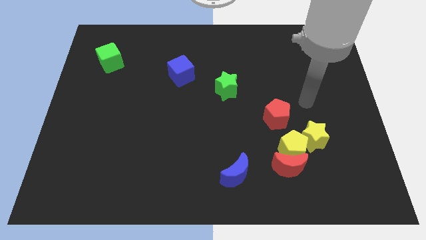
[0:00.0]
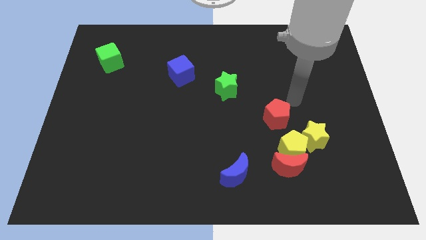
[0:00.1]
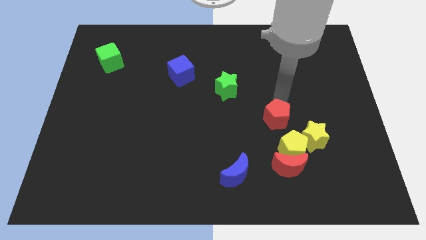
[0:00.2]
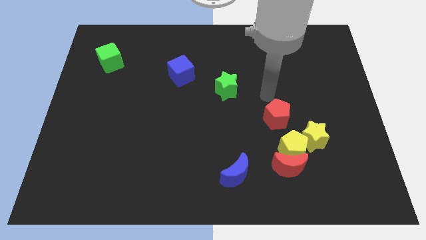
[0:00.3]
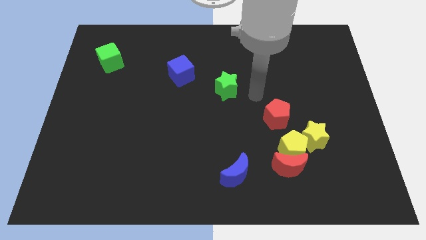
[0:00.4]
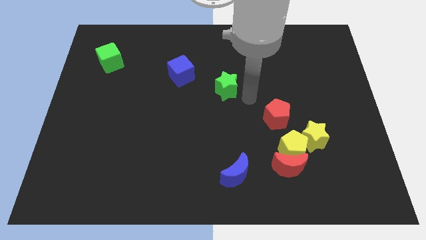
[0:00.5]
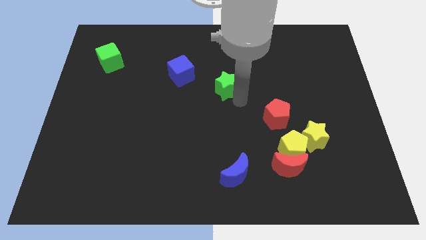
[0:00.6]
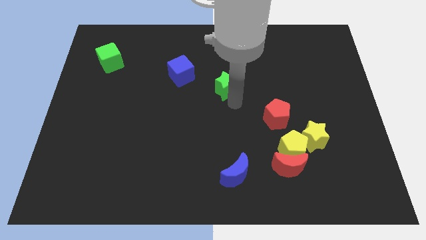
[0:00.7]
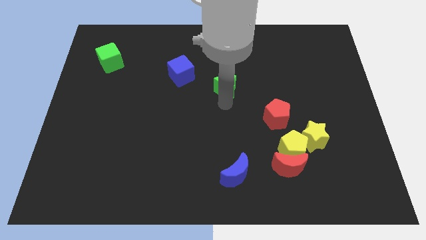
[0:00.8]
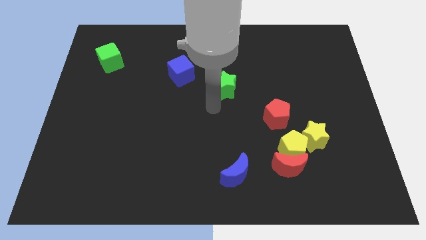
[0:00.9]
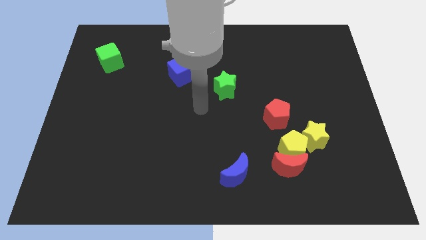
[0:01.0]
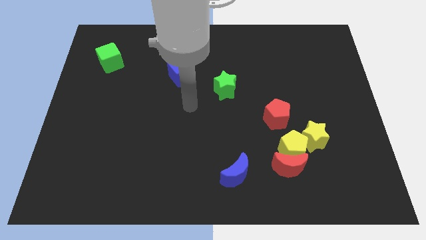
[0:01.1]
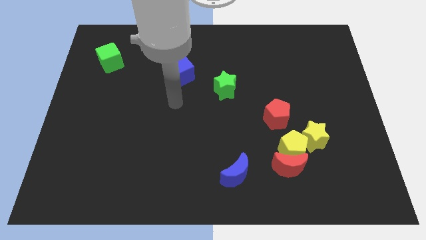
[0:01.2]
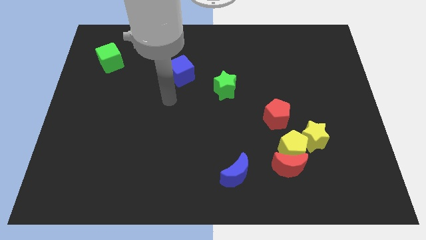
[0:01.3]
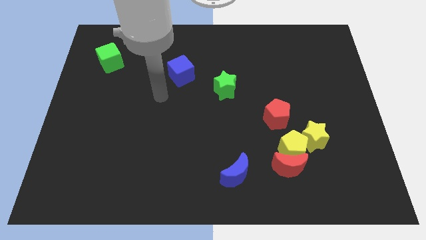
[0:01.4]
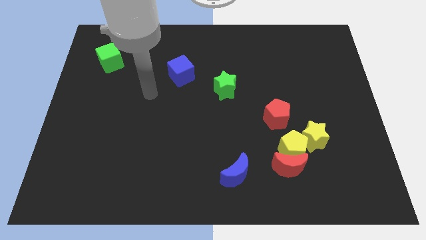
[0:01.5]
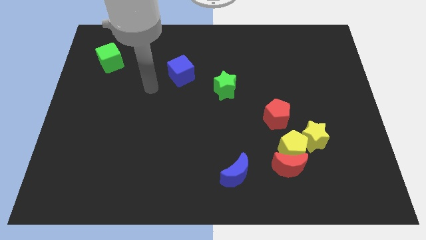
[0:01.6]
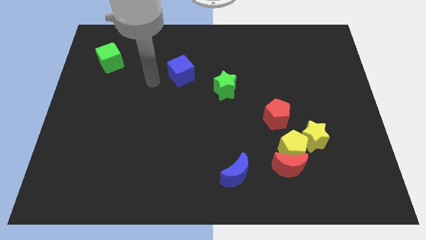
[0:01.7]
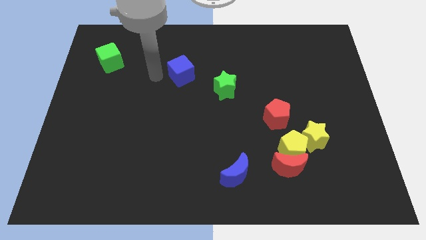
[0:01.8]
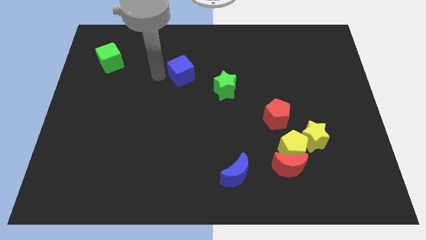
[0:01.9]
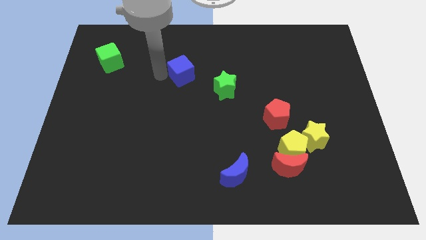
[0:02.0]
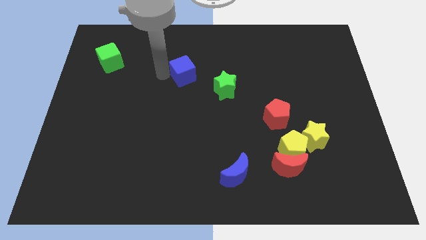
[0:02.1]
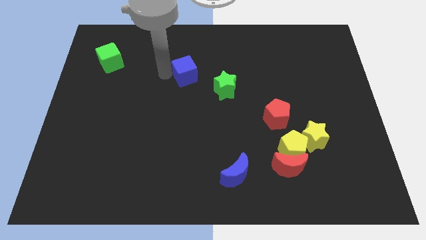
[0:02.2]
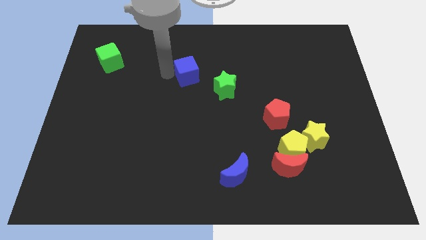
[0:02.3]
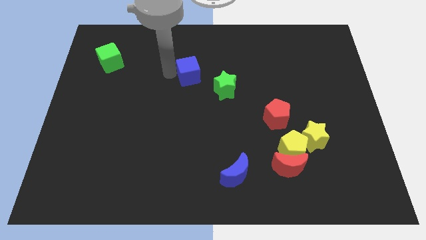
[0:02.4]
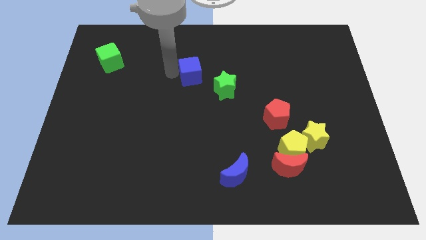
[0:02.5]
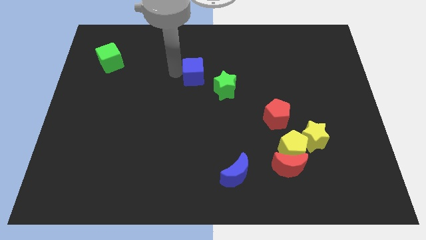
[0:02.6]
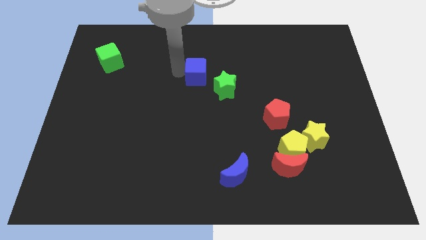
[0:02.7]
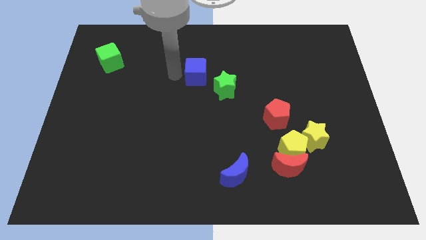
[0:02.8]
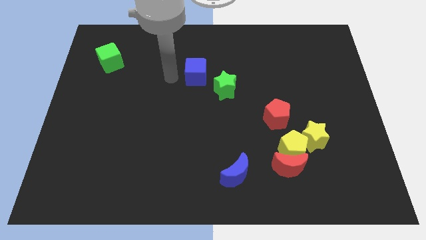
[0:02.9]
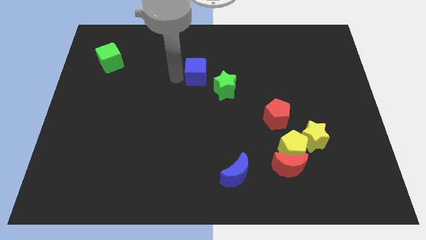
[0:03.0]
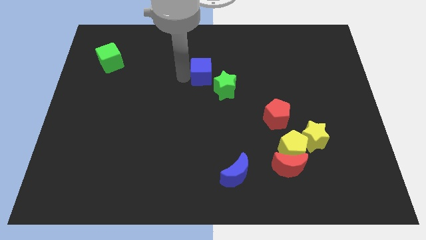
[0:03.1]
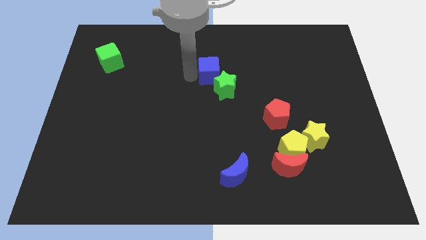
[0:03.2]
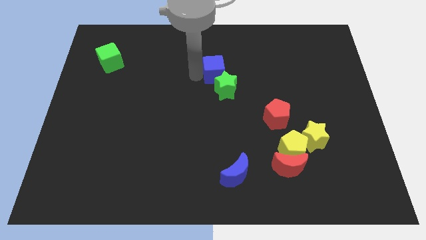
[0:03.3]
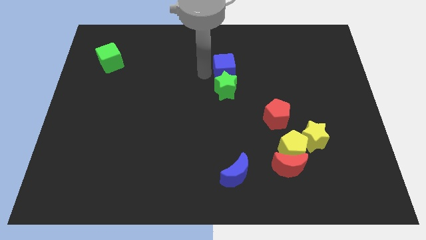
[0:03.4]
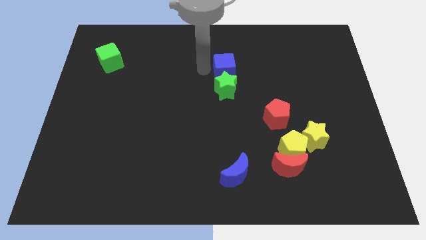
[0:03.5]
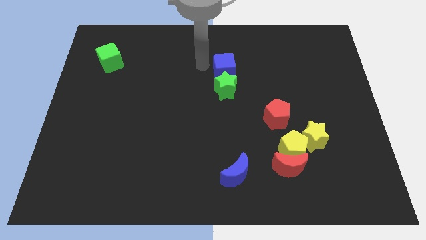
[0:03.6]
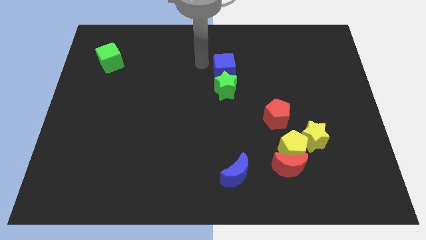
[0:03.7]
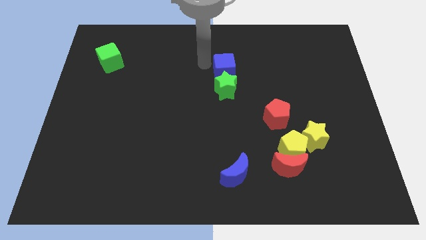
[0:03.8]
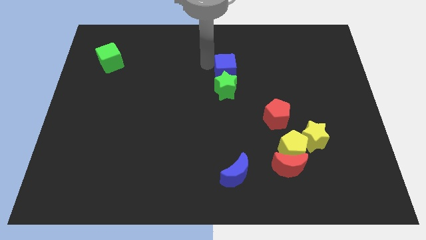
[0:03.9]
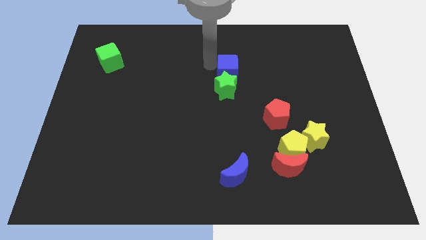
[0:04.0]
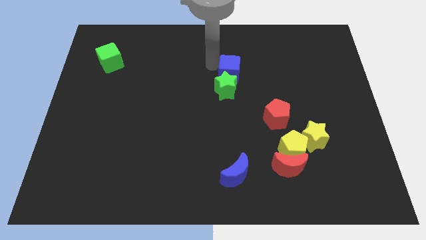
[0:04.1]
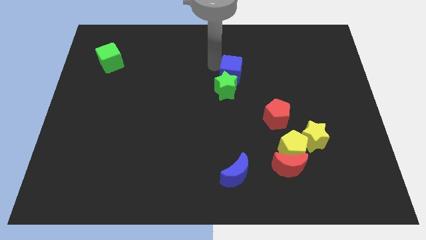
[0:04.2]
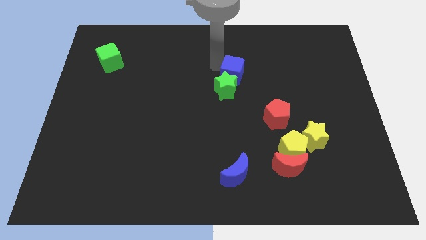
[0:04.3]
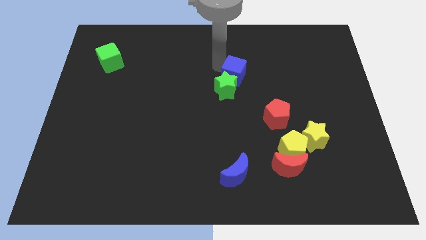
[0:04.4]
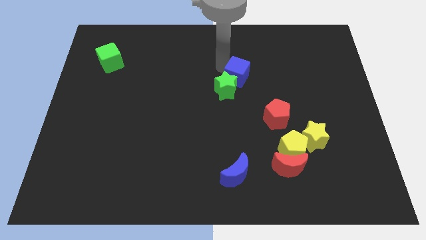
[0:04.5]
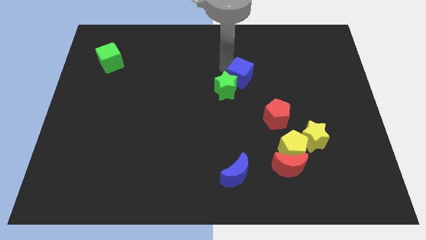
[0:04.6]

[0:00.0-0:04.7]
slide the blue cube just right of the green star

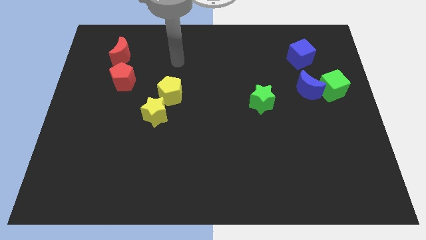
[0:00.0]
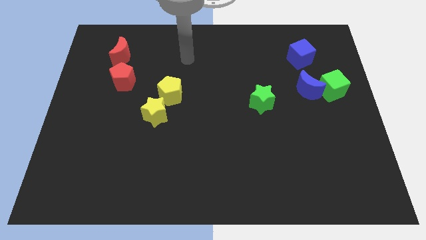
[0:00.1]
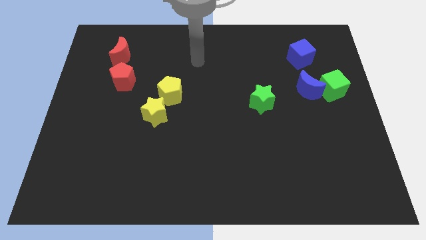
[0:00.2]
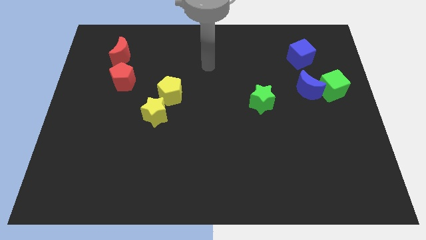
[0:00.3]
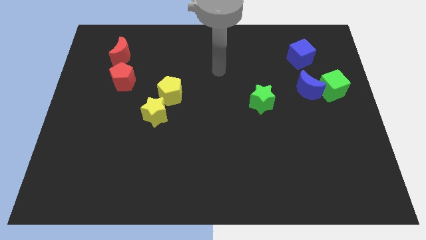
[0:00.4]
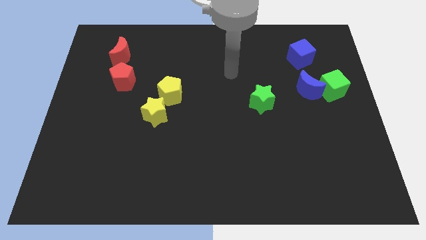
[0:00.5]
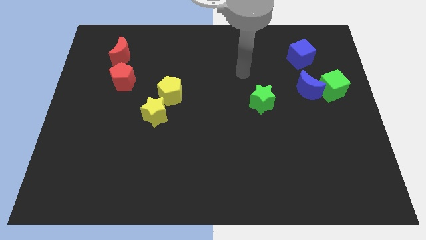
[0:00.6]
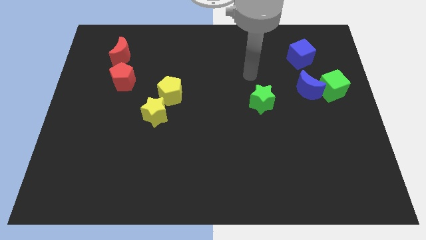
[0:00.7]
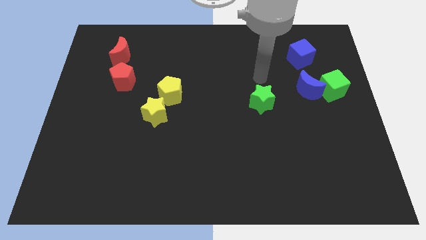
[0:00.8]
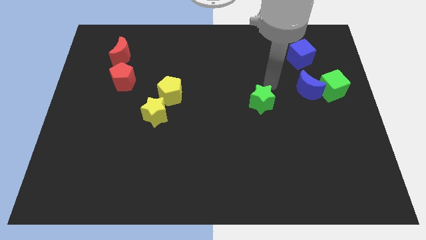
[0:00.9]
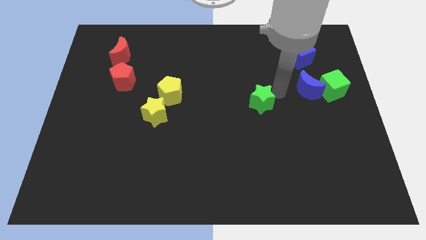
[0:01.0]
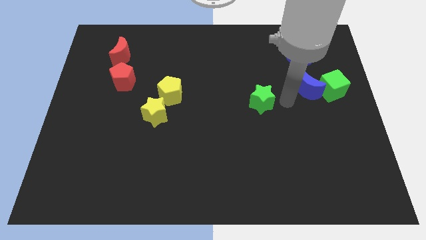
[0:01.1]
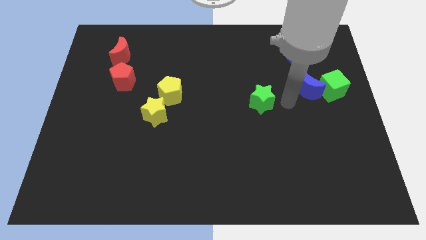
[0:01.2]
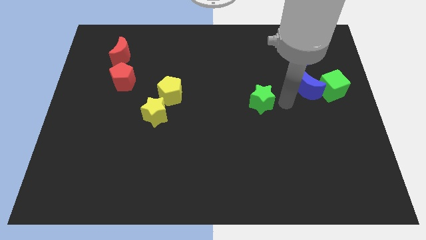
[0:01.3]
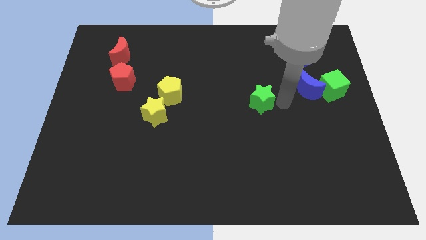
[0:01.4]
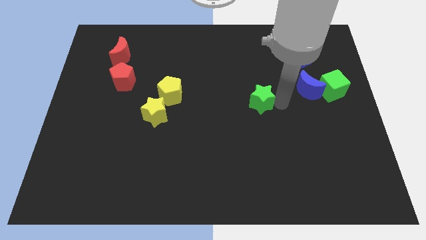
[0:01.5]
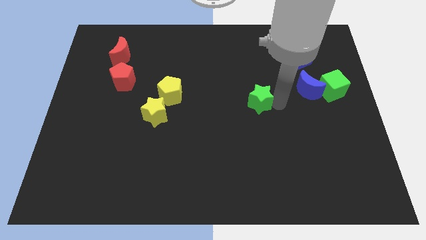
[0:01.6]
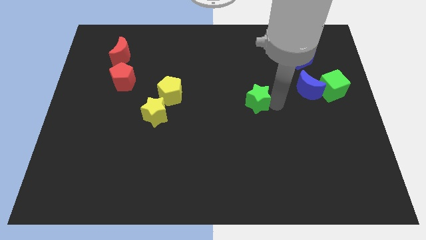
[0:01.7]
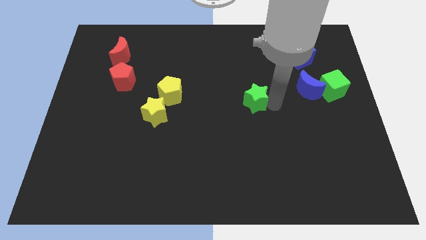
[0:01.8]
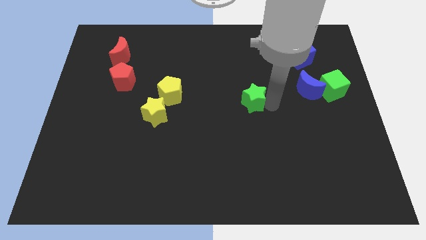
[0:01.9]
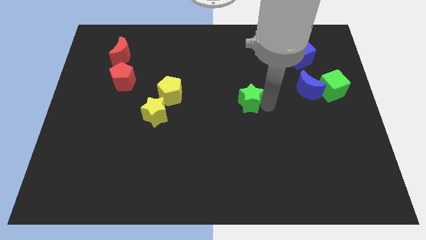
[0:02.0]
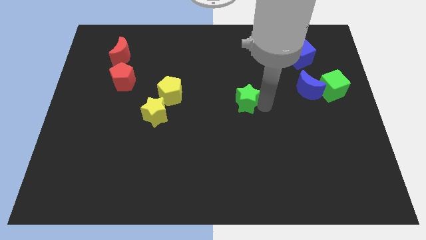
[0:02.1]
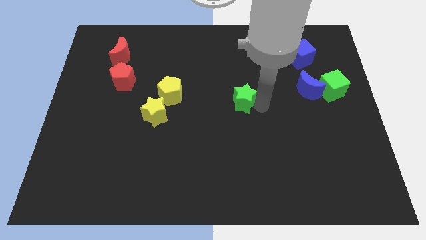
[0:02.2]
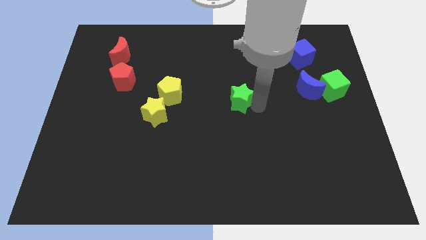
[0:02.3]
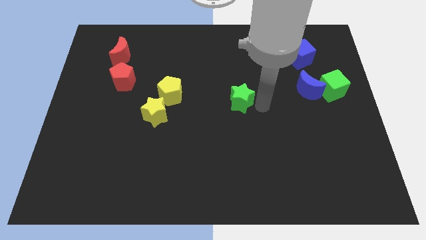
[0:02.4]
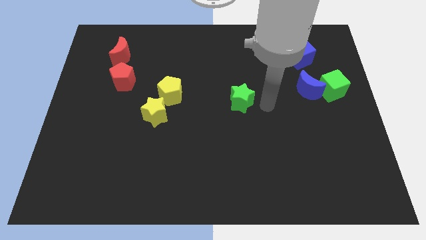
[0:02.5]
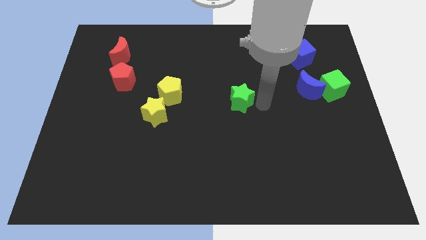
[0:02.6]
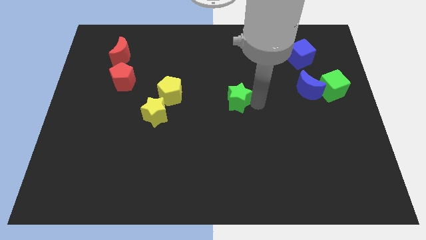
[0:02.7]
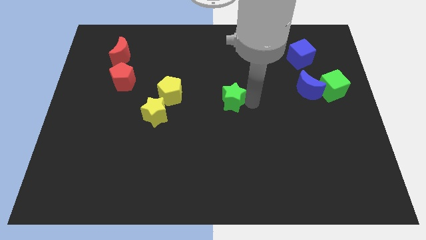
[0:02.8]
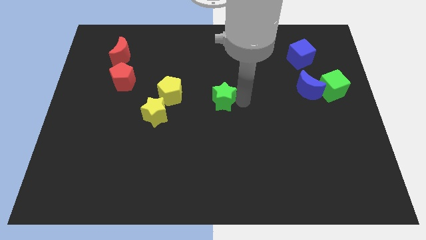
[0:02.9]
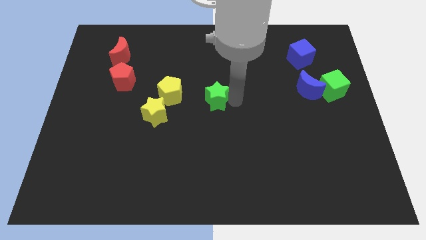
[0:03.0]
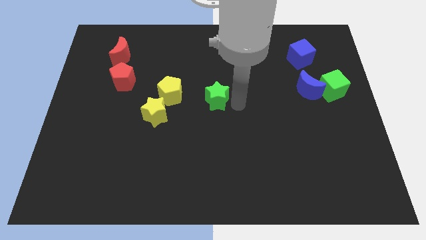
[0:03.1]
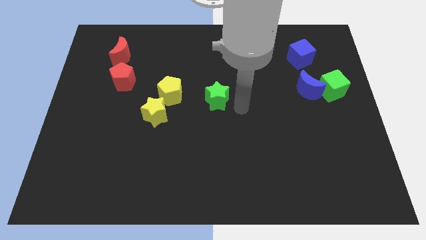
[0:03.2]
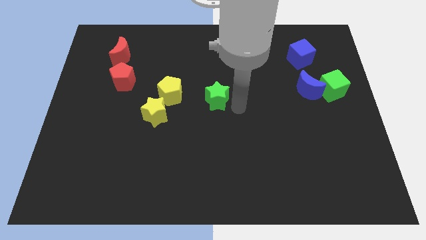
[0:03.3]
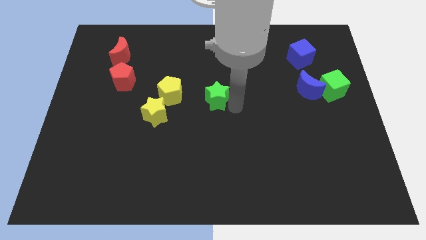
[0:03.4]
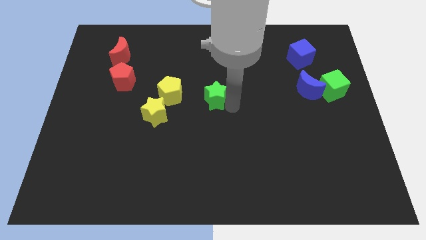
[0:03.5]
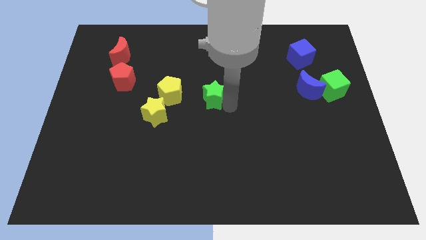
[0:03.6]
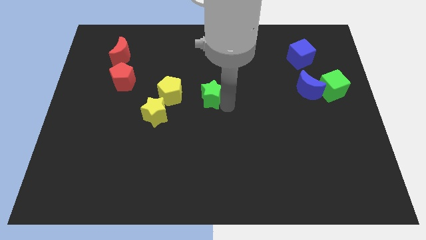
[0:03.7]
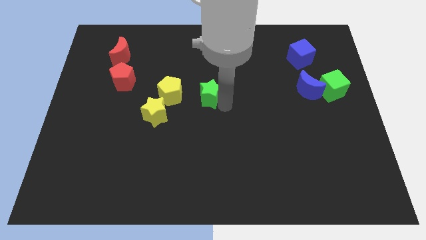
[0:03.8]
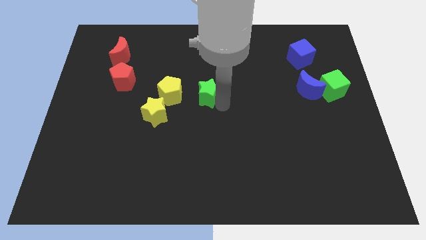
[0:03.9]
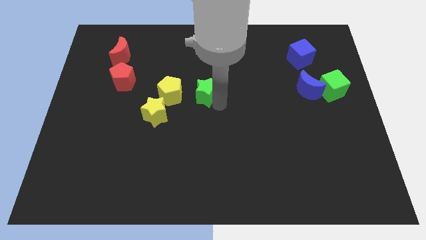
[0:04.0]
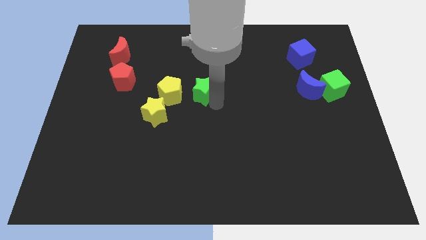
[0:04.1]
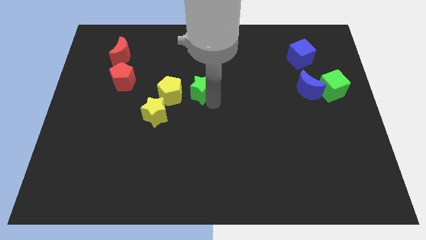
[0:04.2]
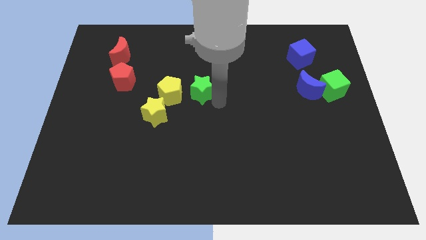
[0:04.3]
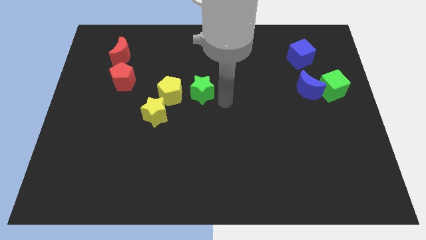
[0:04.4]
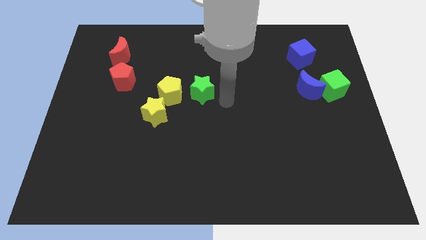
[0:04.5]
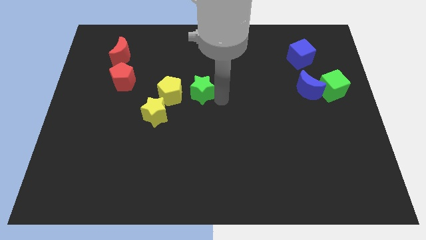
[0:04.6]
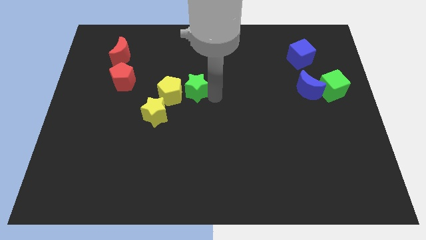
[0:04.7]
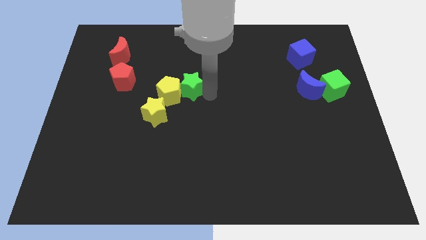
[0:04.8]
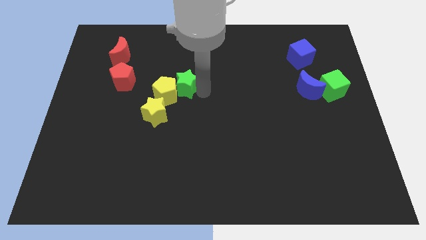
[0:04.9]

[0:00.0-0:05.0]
put the green star to the right of the red pentagon
